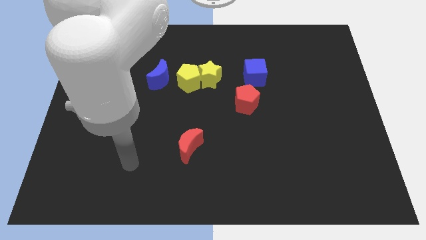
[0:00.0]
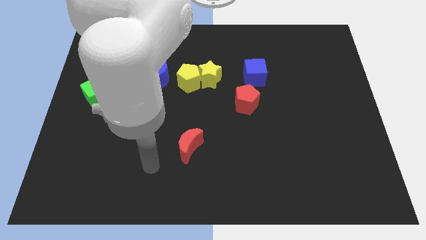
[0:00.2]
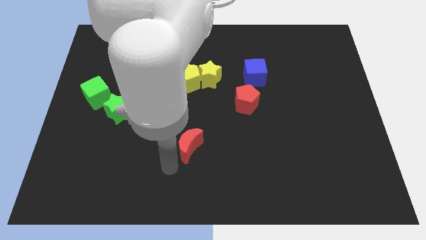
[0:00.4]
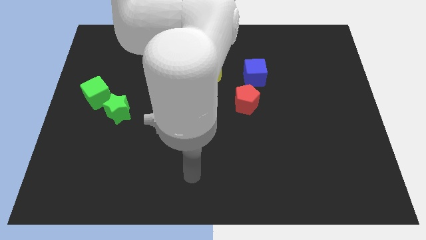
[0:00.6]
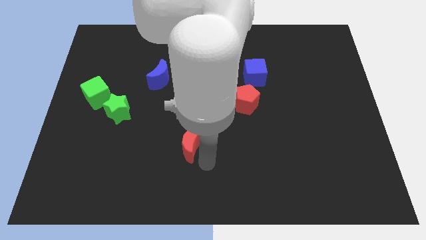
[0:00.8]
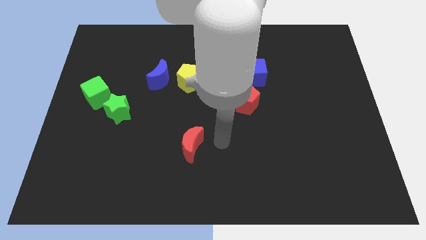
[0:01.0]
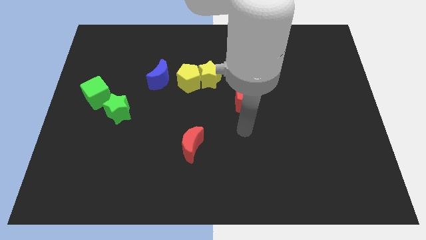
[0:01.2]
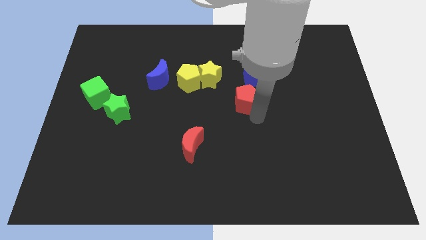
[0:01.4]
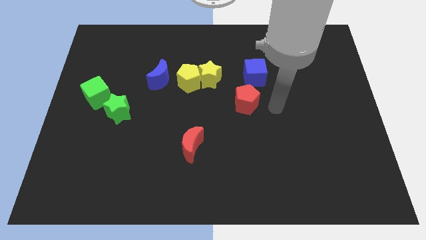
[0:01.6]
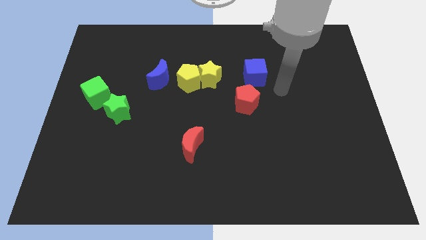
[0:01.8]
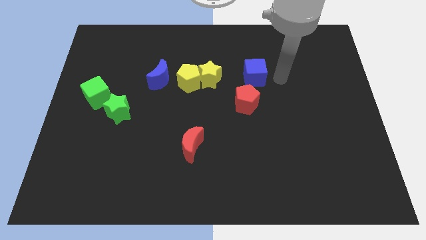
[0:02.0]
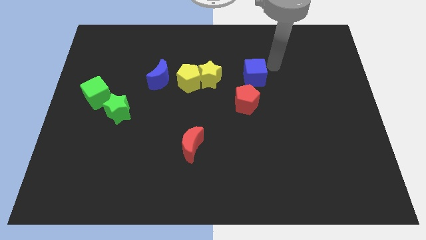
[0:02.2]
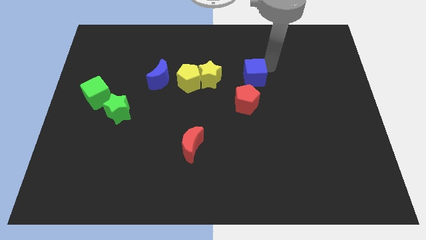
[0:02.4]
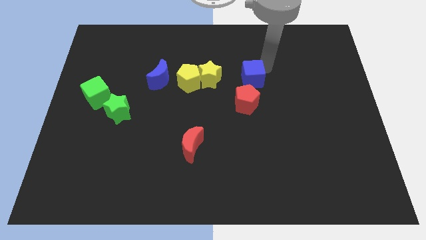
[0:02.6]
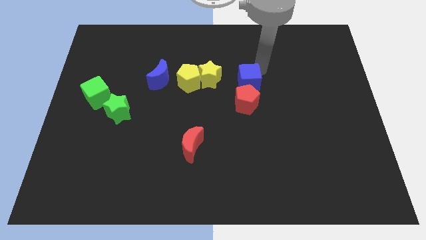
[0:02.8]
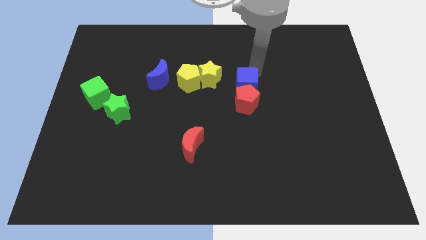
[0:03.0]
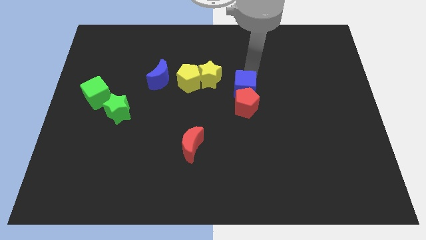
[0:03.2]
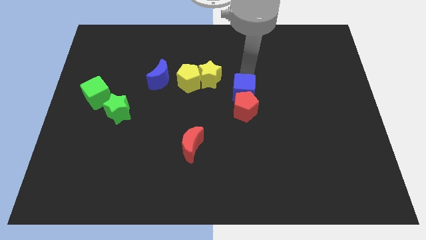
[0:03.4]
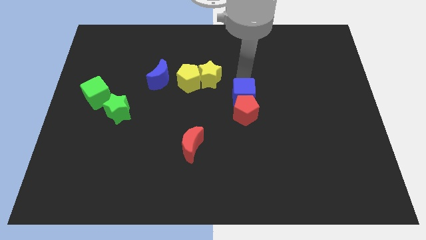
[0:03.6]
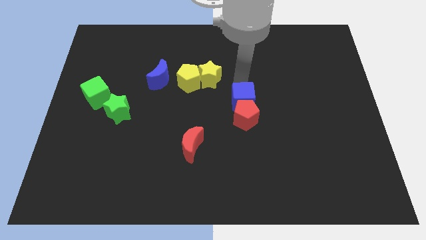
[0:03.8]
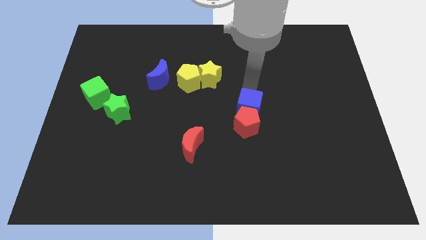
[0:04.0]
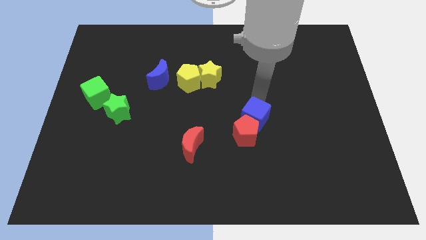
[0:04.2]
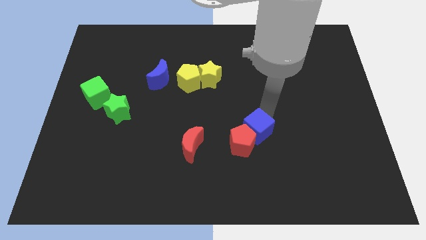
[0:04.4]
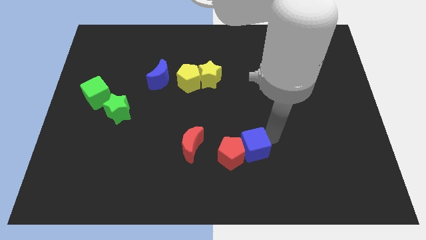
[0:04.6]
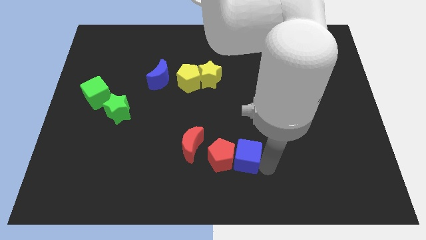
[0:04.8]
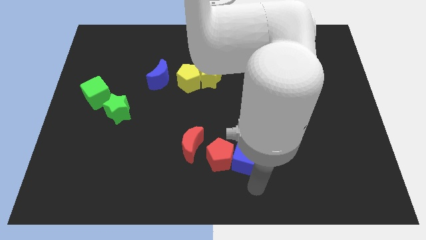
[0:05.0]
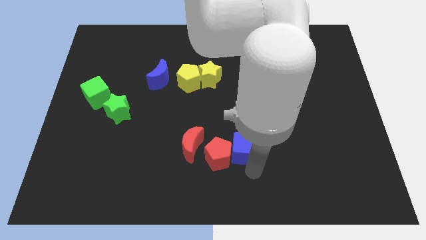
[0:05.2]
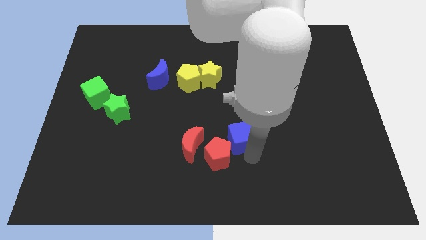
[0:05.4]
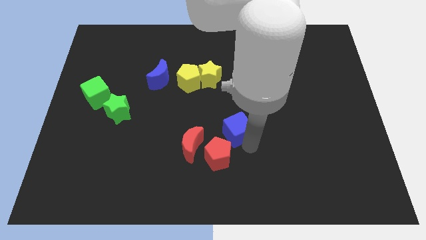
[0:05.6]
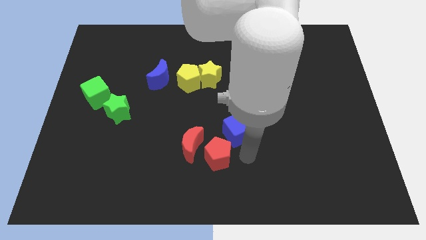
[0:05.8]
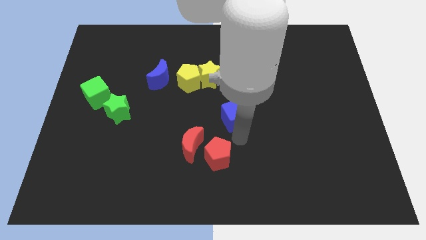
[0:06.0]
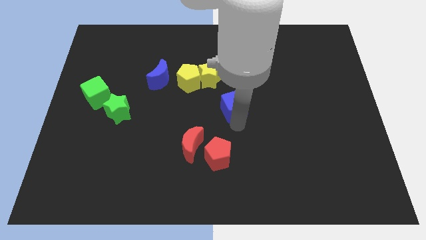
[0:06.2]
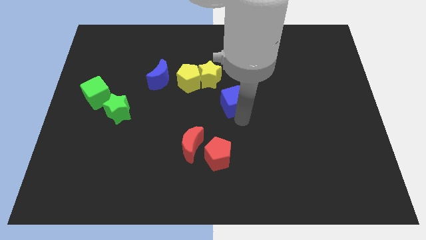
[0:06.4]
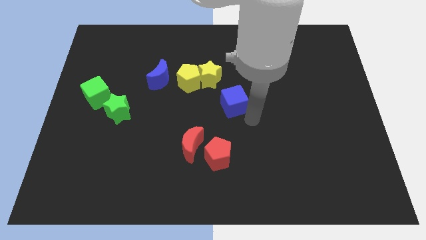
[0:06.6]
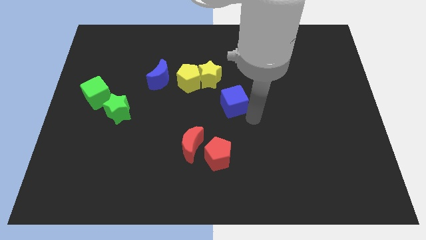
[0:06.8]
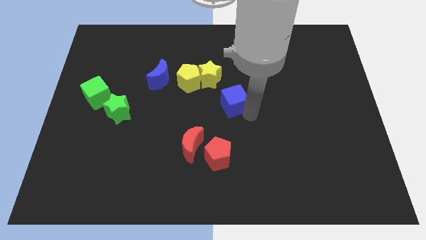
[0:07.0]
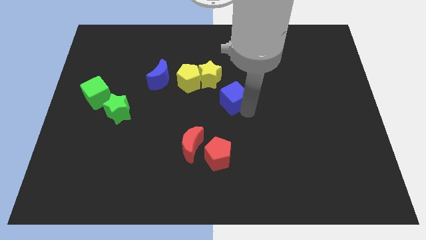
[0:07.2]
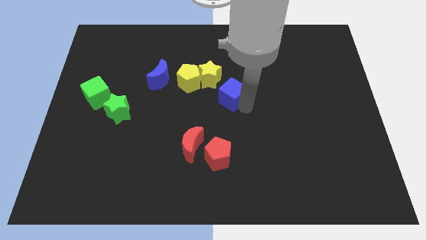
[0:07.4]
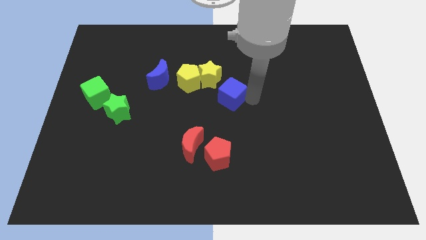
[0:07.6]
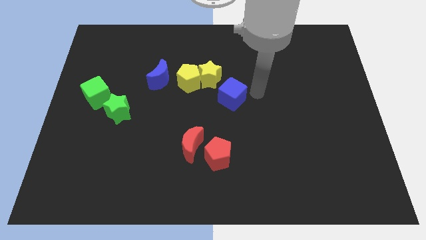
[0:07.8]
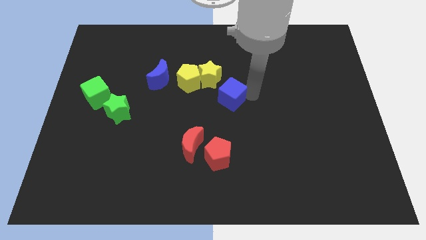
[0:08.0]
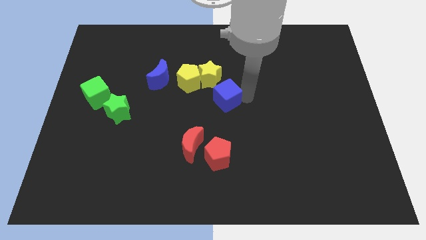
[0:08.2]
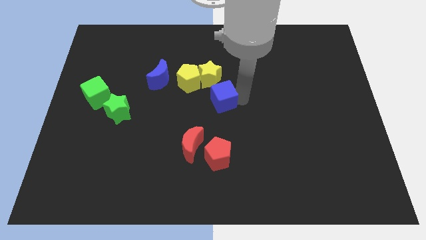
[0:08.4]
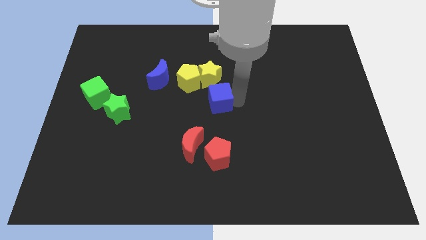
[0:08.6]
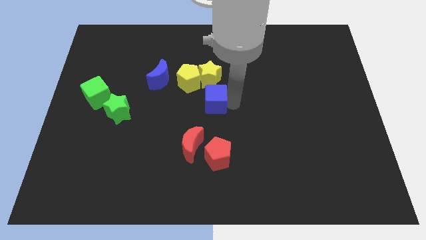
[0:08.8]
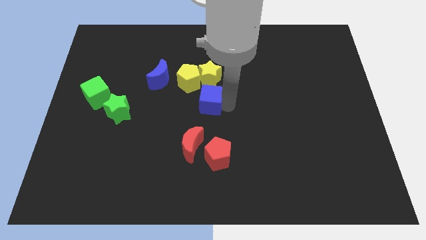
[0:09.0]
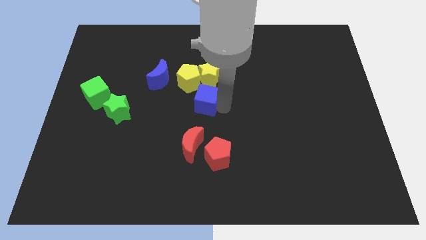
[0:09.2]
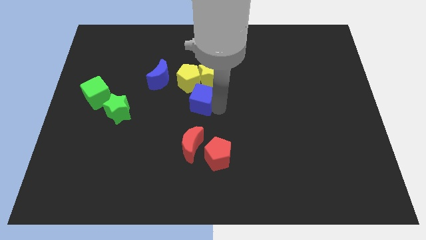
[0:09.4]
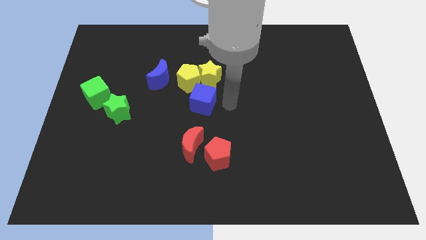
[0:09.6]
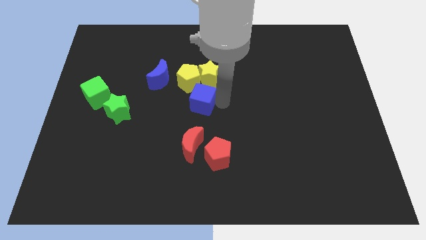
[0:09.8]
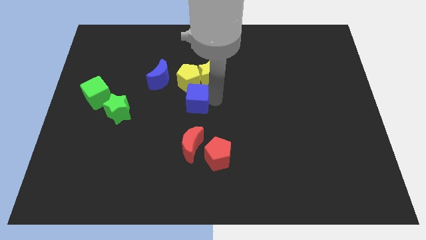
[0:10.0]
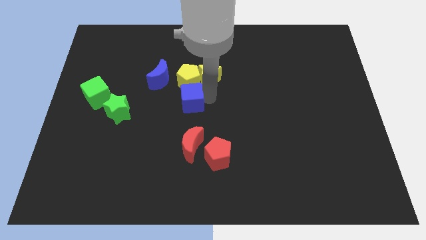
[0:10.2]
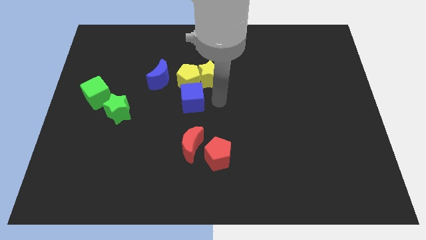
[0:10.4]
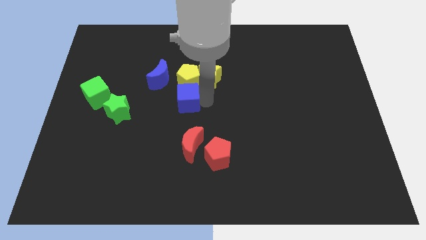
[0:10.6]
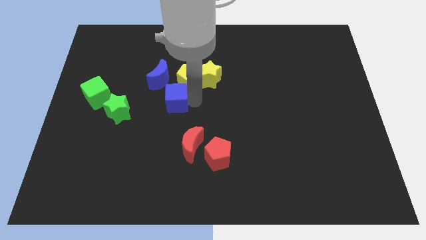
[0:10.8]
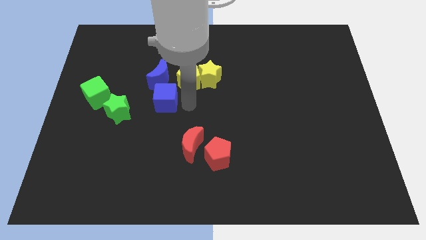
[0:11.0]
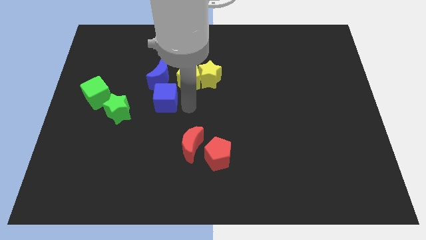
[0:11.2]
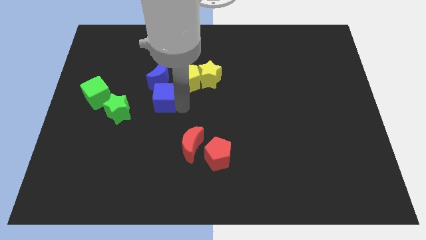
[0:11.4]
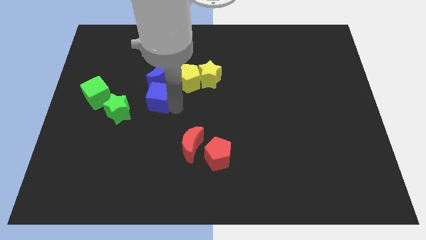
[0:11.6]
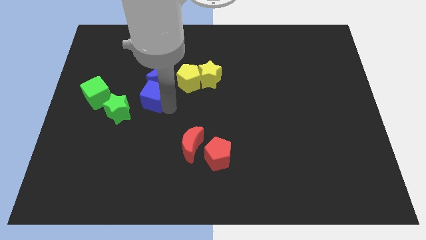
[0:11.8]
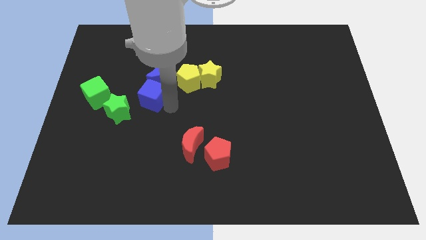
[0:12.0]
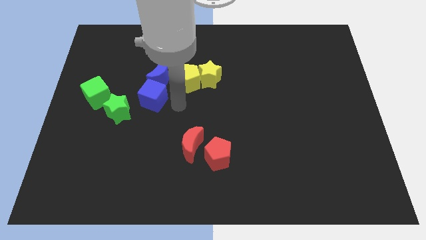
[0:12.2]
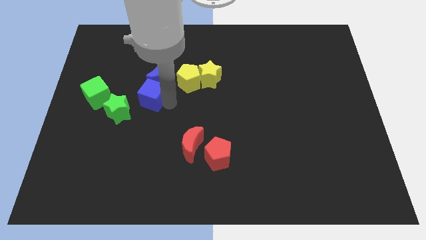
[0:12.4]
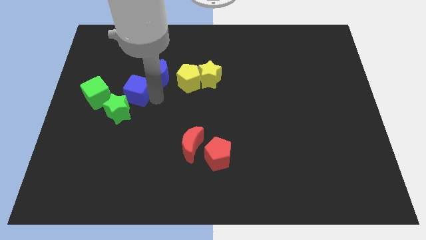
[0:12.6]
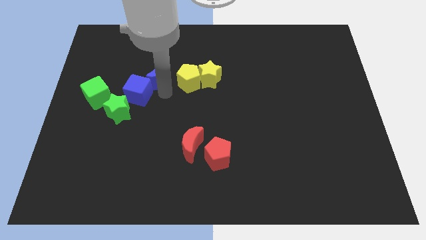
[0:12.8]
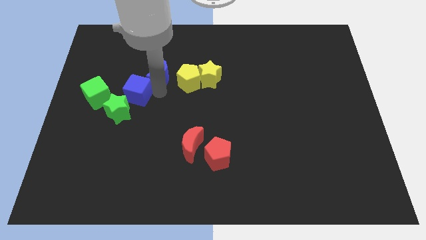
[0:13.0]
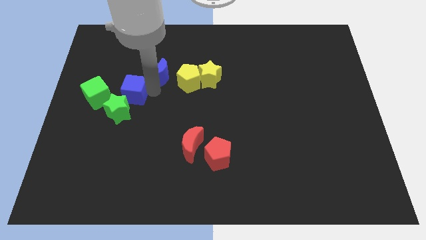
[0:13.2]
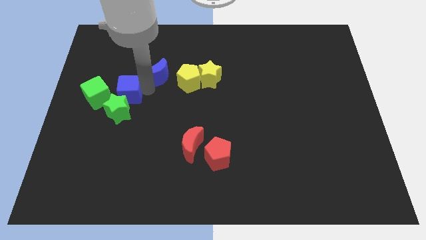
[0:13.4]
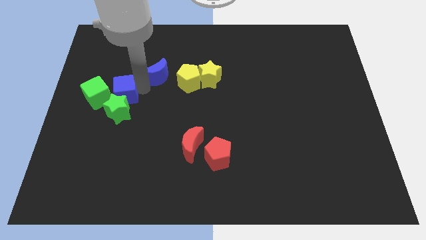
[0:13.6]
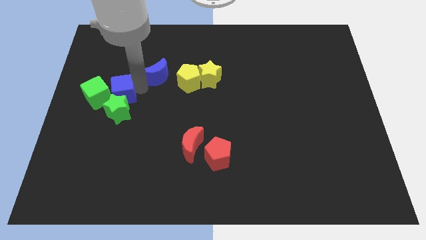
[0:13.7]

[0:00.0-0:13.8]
put the blue cube towards the green cube

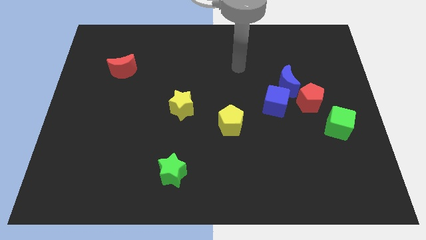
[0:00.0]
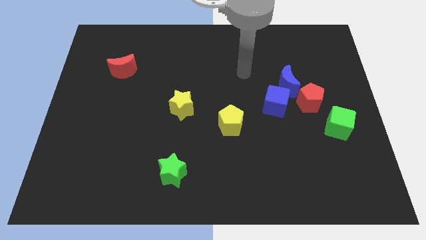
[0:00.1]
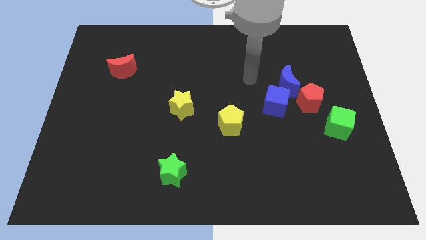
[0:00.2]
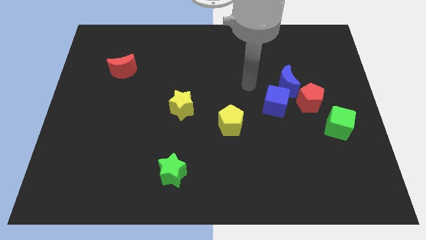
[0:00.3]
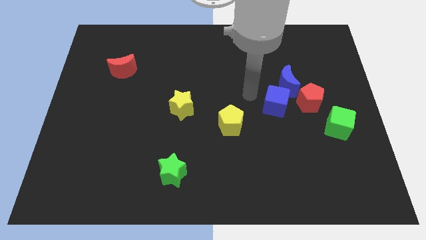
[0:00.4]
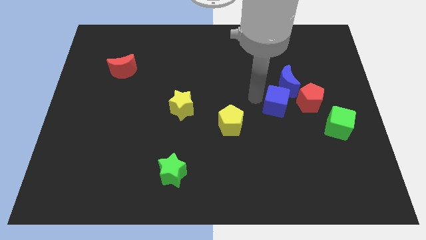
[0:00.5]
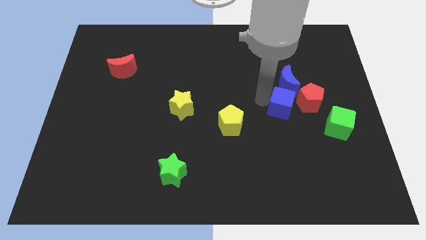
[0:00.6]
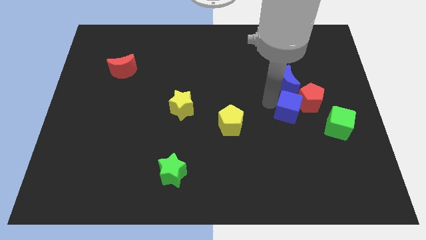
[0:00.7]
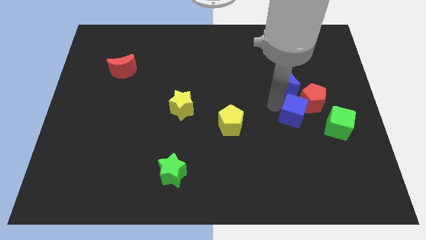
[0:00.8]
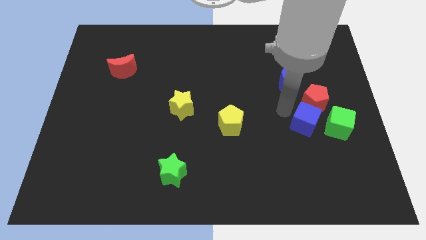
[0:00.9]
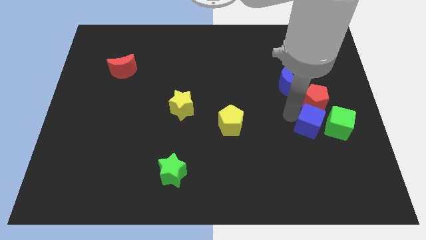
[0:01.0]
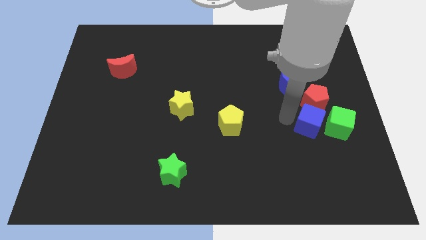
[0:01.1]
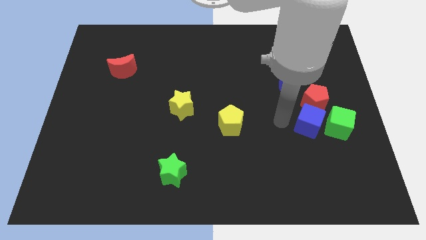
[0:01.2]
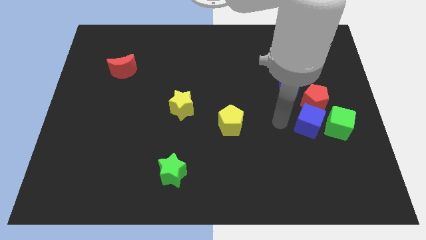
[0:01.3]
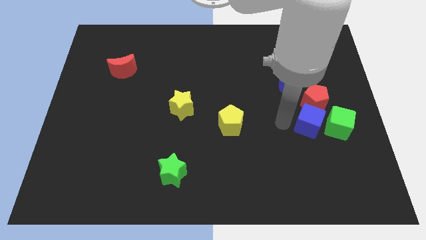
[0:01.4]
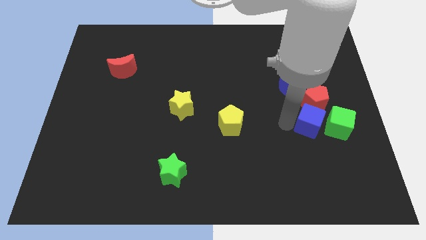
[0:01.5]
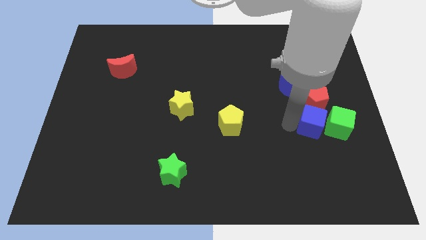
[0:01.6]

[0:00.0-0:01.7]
slide the blue cube close to the green cube
